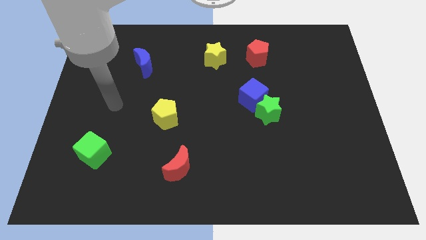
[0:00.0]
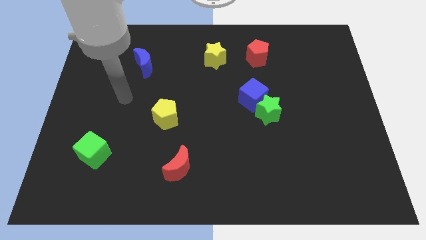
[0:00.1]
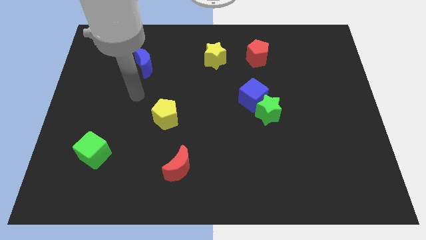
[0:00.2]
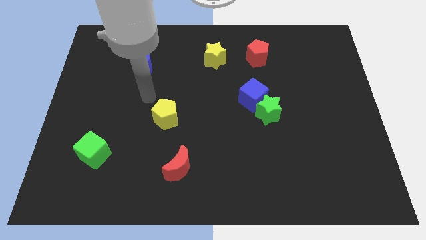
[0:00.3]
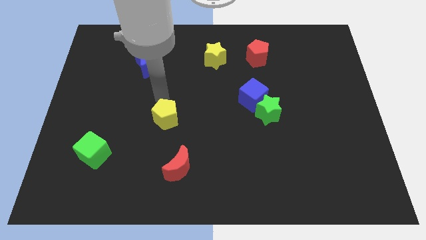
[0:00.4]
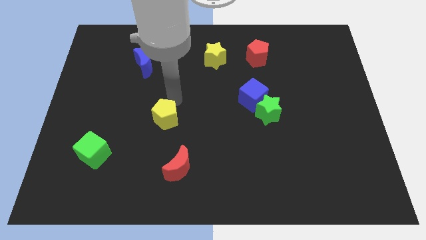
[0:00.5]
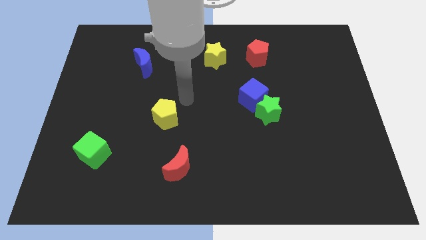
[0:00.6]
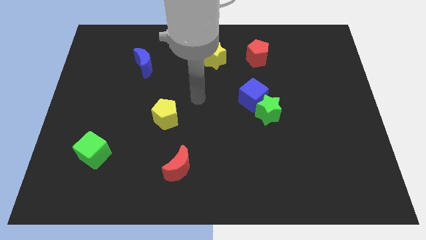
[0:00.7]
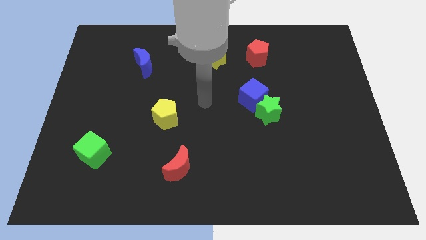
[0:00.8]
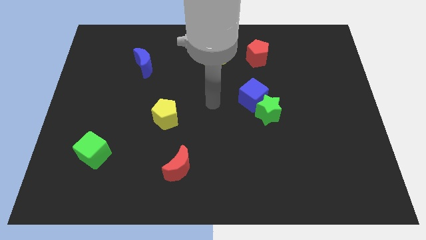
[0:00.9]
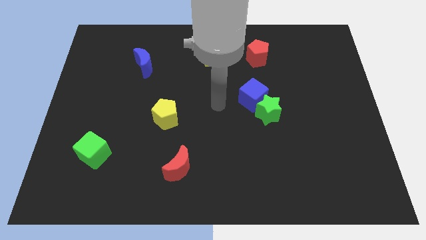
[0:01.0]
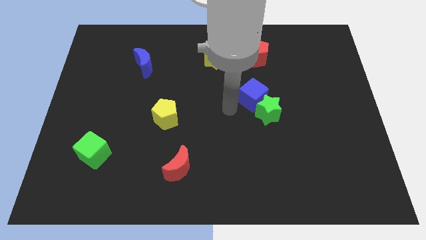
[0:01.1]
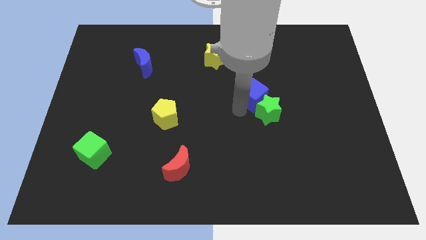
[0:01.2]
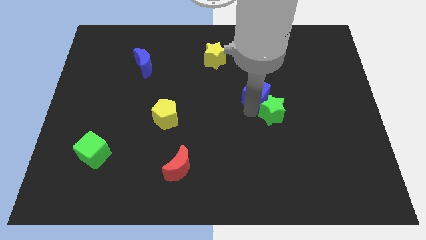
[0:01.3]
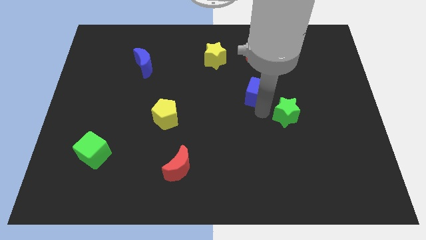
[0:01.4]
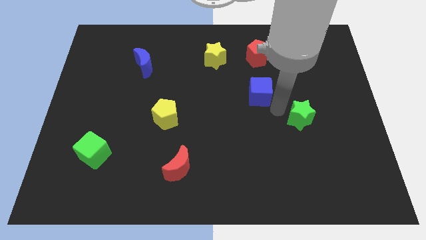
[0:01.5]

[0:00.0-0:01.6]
pull the blue cube apart from the green star

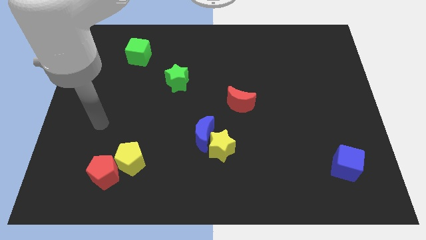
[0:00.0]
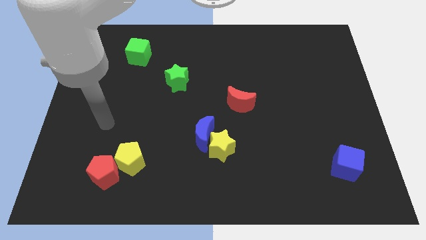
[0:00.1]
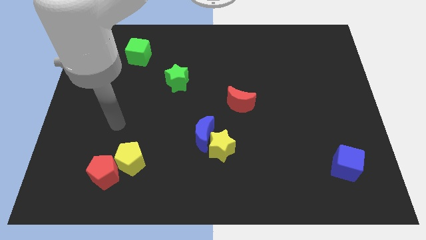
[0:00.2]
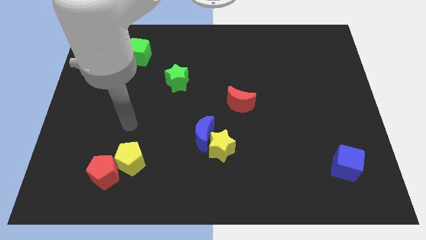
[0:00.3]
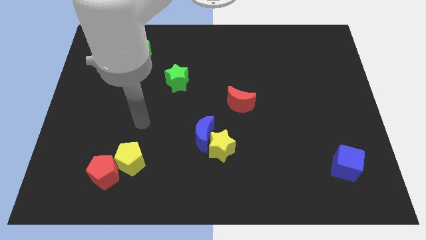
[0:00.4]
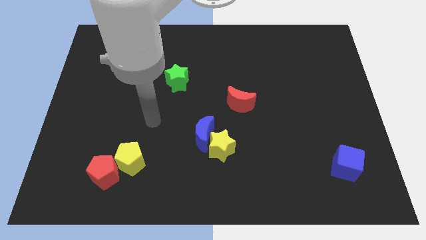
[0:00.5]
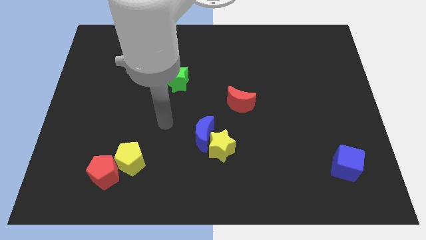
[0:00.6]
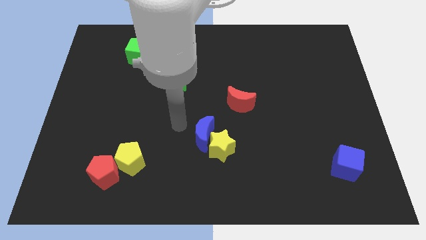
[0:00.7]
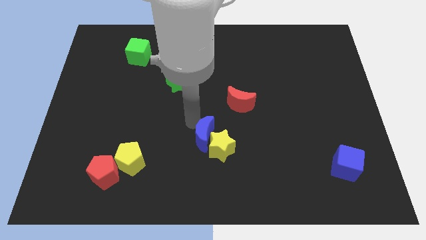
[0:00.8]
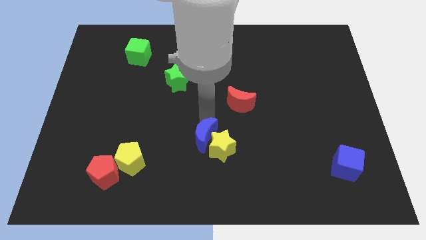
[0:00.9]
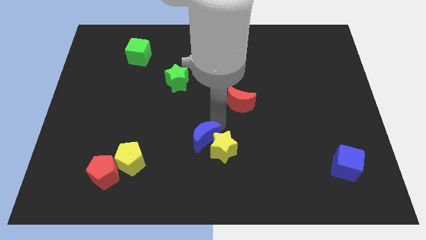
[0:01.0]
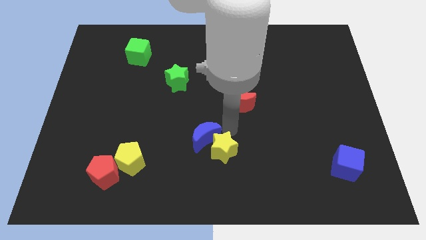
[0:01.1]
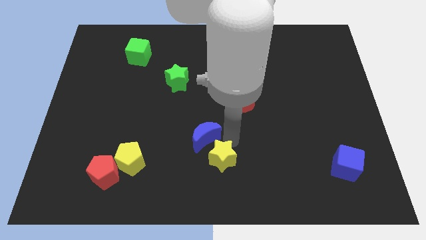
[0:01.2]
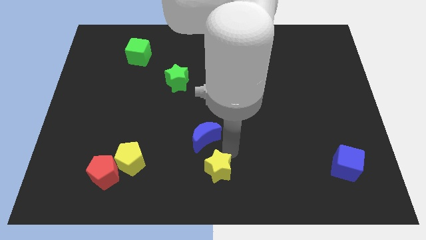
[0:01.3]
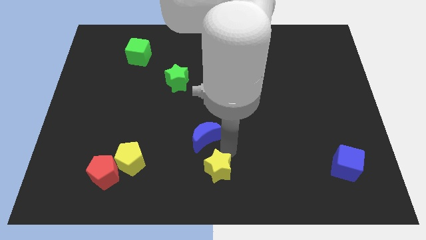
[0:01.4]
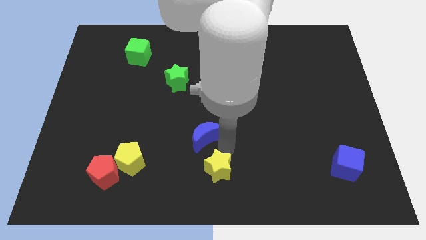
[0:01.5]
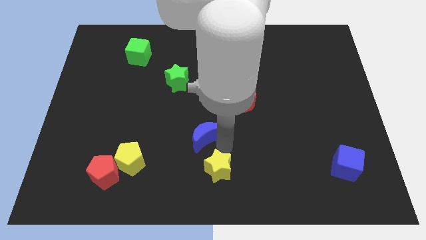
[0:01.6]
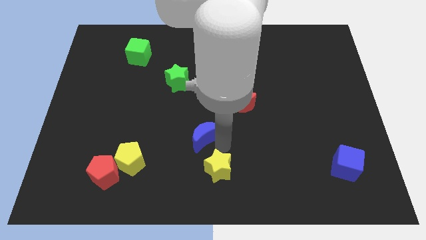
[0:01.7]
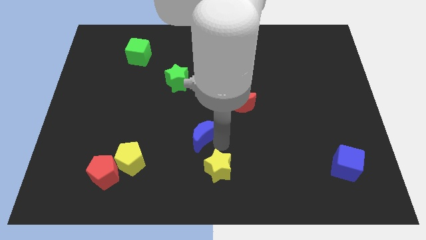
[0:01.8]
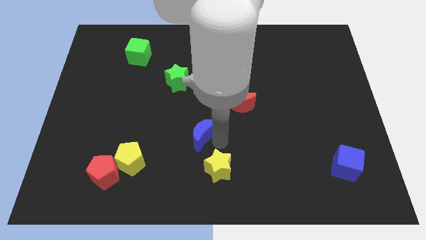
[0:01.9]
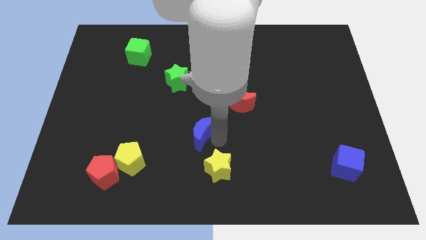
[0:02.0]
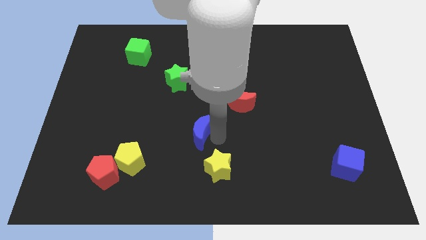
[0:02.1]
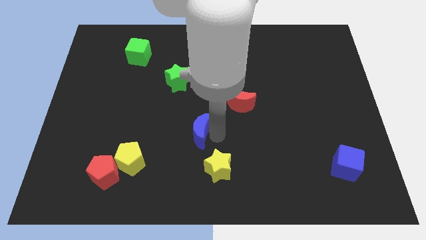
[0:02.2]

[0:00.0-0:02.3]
separate the blue moon from the yellow star

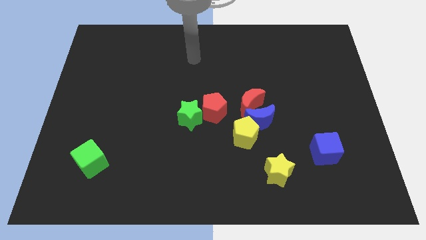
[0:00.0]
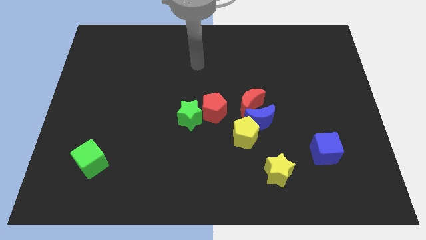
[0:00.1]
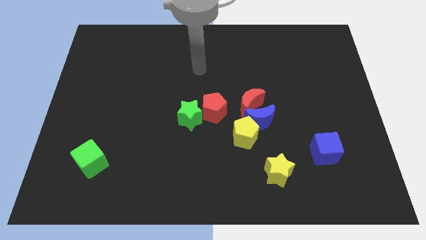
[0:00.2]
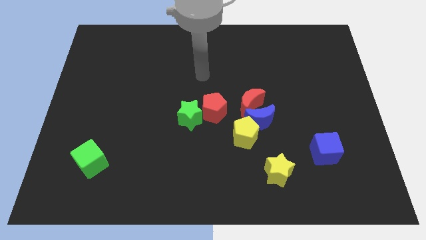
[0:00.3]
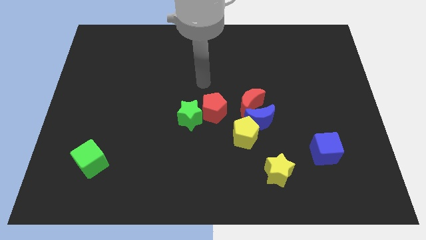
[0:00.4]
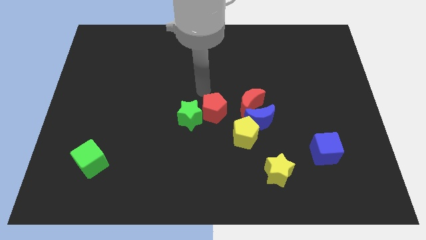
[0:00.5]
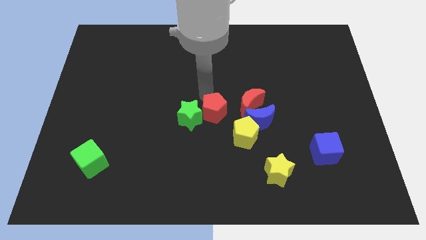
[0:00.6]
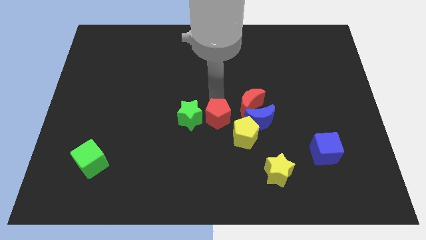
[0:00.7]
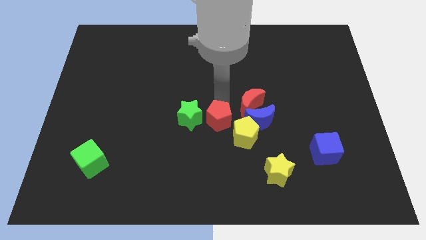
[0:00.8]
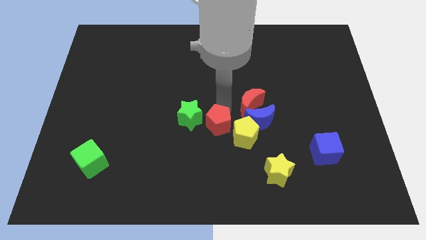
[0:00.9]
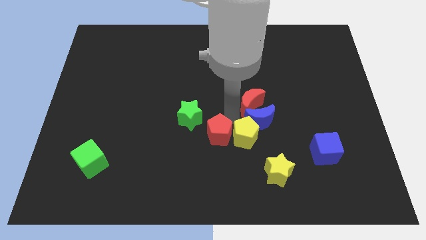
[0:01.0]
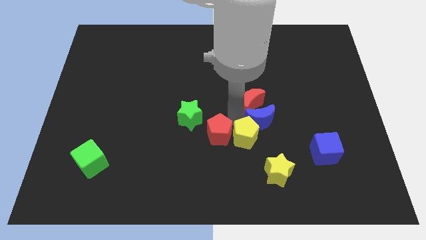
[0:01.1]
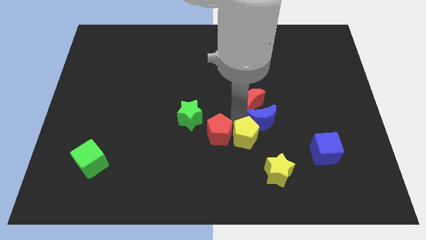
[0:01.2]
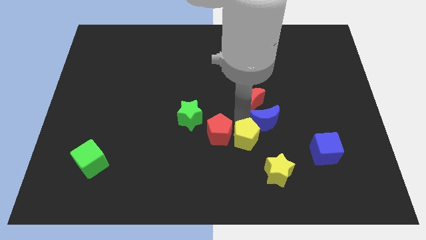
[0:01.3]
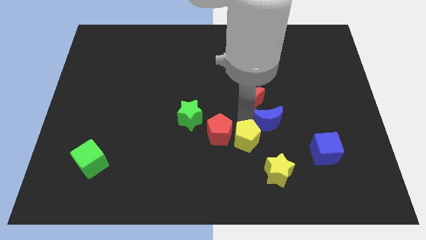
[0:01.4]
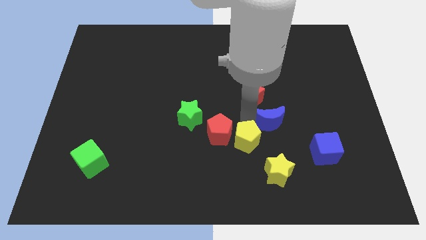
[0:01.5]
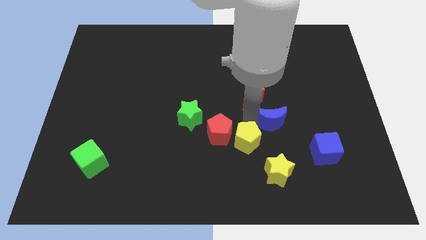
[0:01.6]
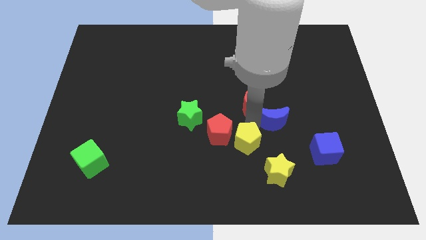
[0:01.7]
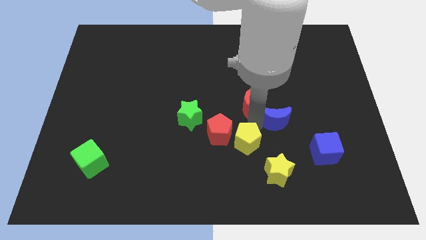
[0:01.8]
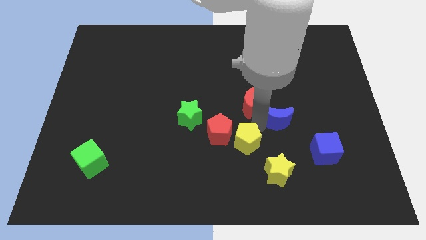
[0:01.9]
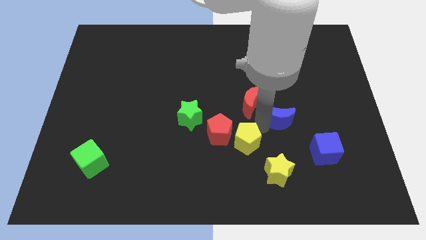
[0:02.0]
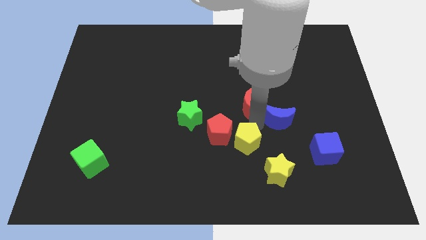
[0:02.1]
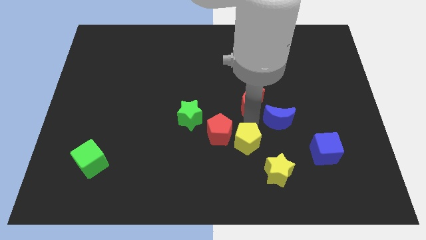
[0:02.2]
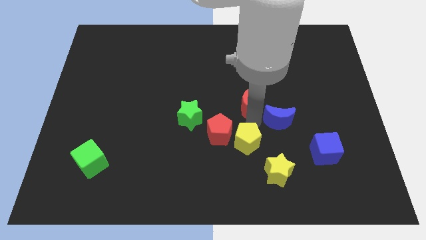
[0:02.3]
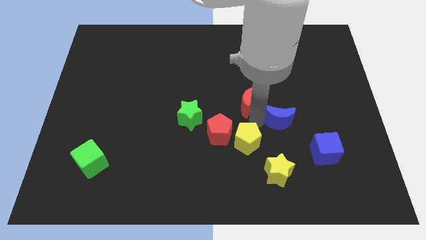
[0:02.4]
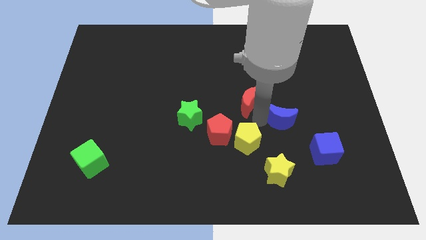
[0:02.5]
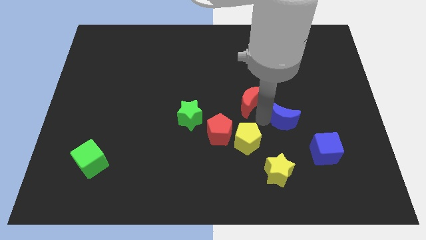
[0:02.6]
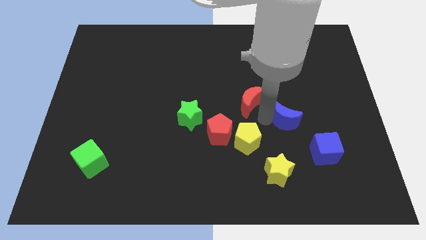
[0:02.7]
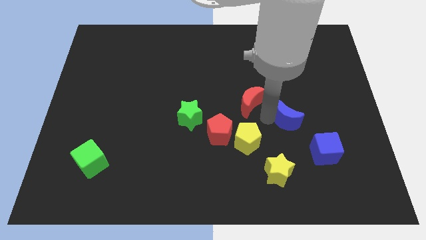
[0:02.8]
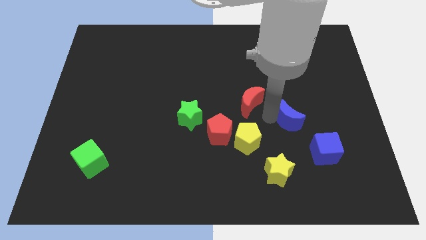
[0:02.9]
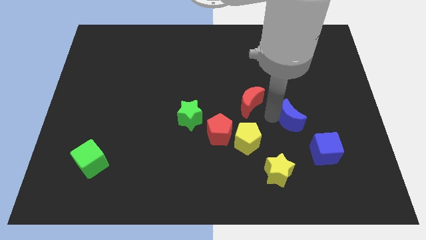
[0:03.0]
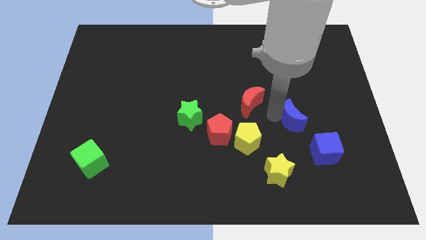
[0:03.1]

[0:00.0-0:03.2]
separate the blue moon from the red moon and yellow pentagon

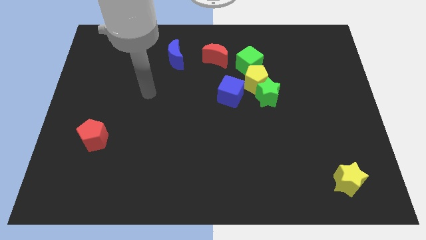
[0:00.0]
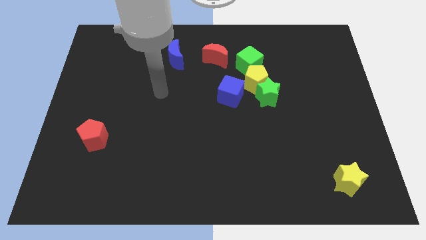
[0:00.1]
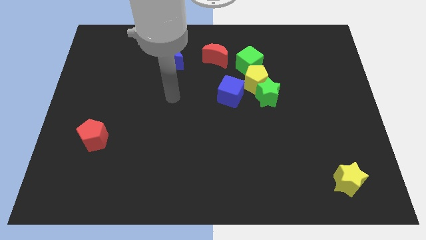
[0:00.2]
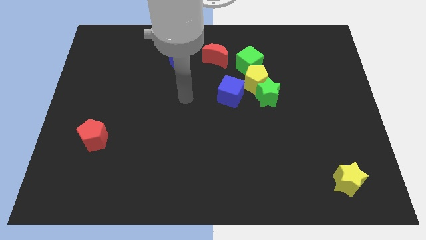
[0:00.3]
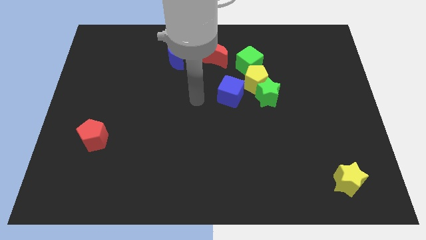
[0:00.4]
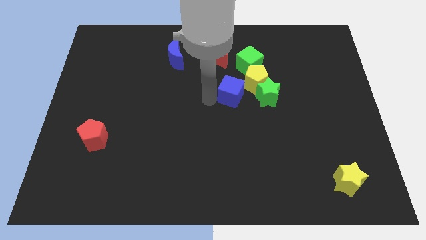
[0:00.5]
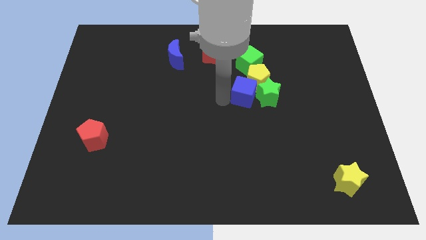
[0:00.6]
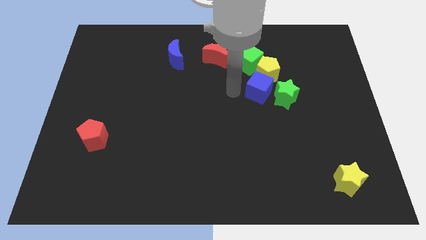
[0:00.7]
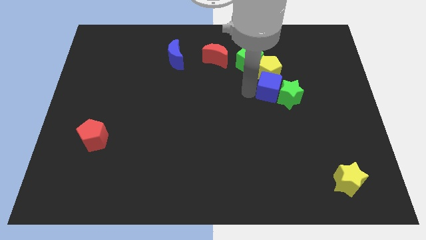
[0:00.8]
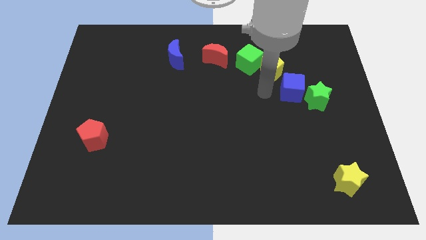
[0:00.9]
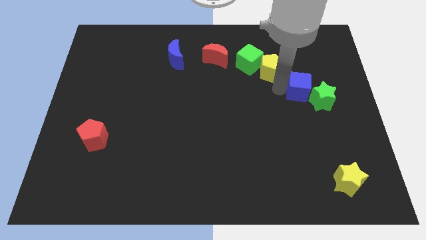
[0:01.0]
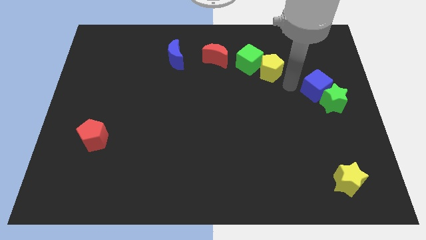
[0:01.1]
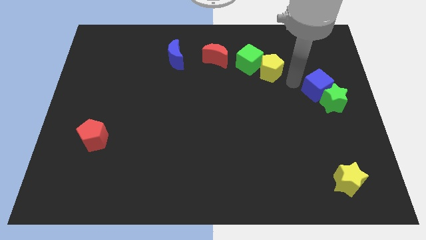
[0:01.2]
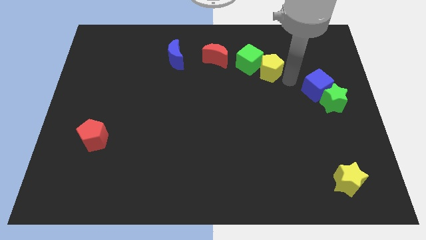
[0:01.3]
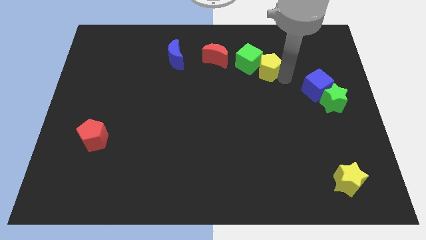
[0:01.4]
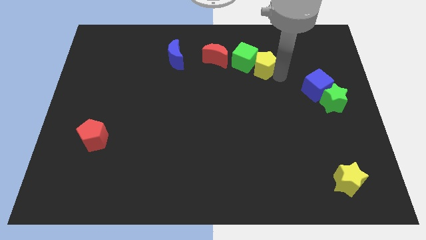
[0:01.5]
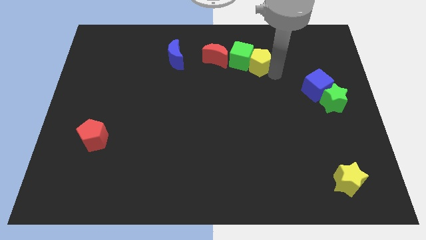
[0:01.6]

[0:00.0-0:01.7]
pull the yellow pentagon apart from the green star, green cube, and blue cube

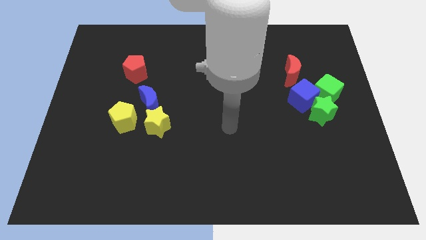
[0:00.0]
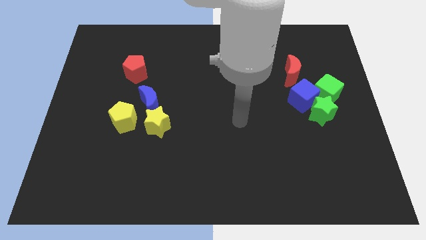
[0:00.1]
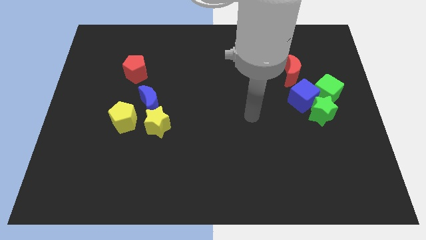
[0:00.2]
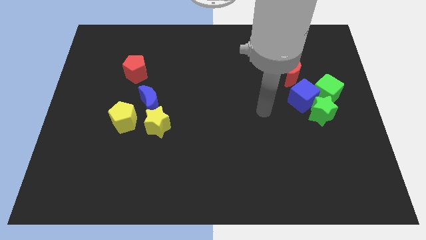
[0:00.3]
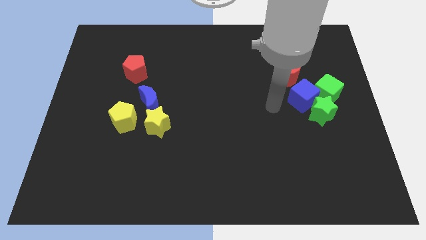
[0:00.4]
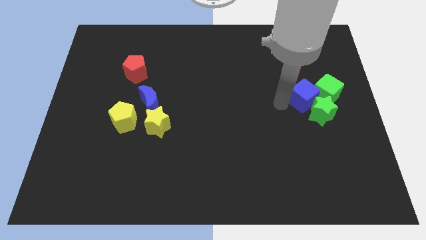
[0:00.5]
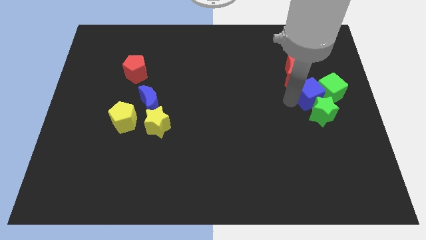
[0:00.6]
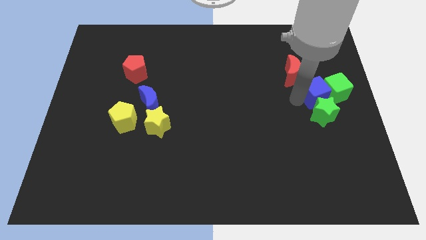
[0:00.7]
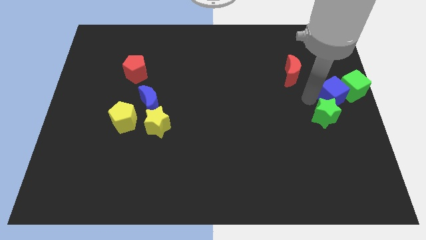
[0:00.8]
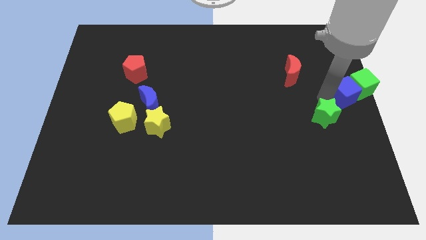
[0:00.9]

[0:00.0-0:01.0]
separate the green star from the blue cube and green cube
